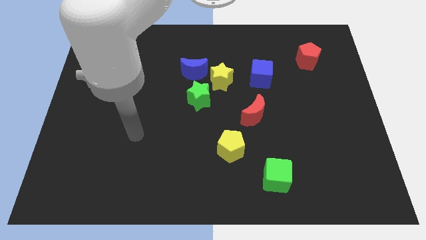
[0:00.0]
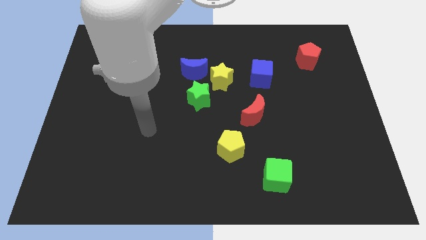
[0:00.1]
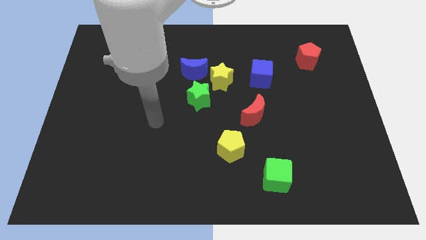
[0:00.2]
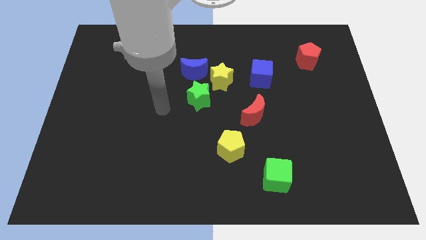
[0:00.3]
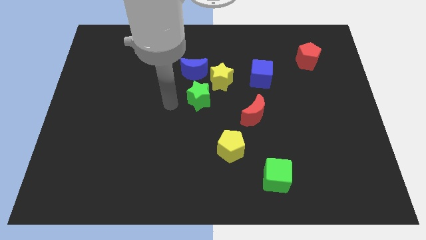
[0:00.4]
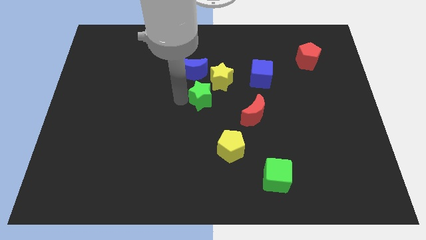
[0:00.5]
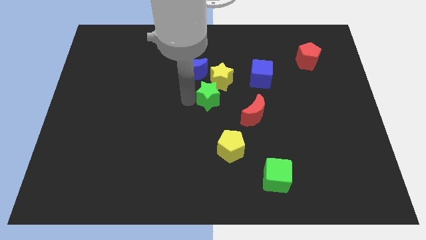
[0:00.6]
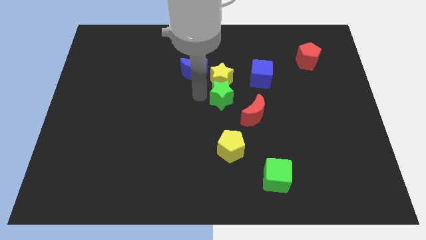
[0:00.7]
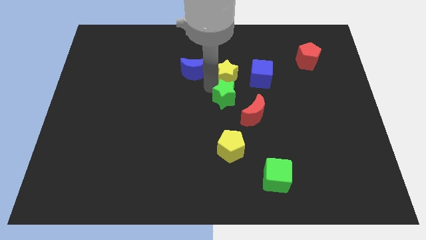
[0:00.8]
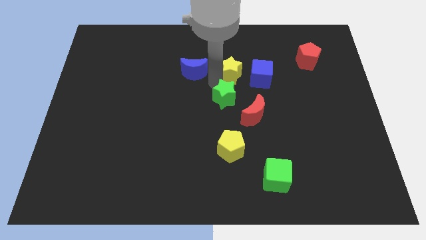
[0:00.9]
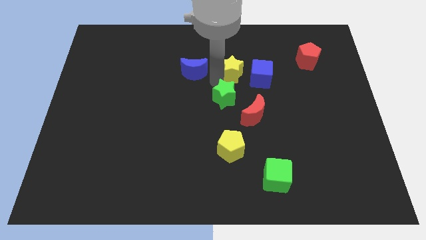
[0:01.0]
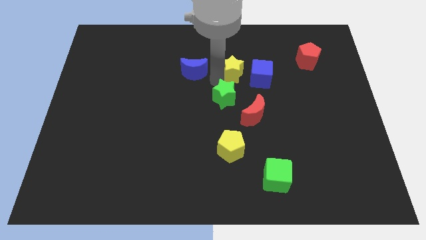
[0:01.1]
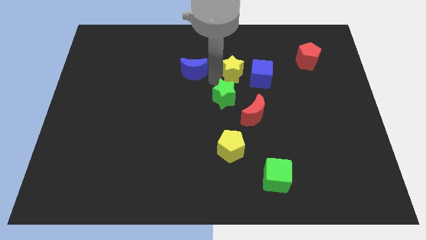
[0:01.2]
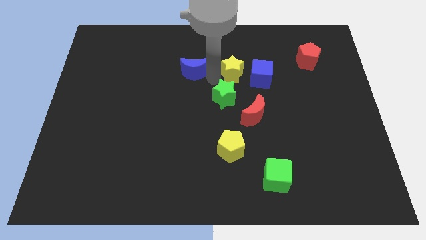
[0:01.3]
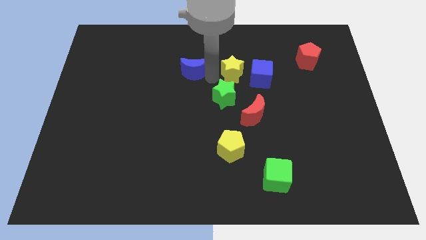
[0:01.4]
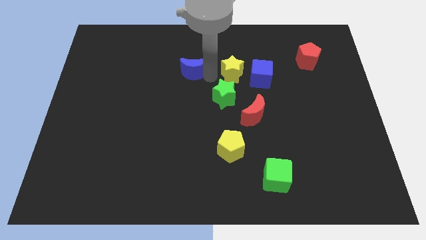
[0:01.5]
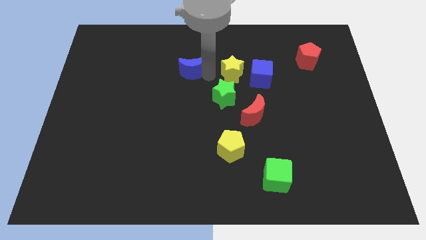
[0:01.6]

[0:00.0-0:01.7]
separate the blue moon from the yellow star and green star

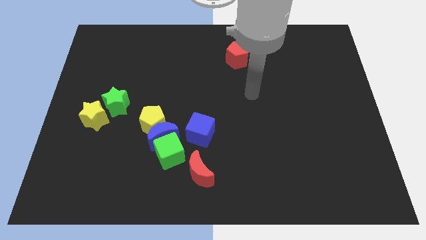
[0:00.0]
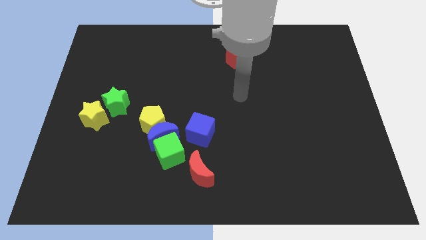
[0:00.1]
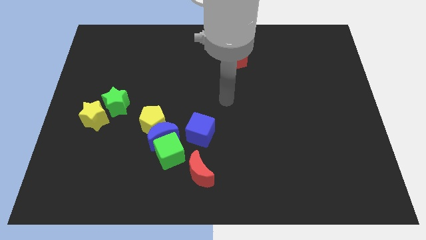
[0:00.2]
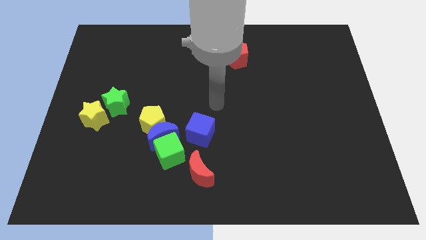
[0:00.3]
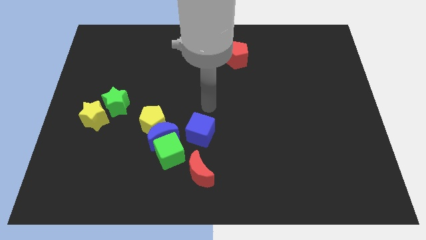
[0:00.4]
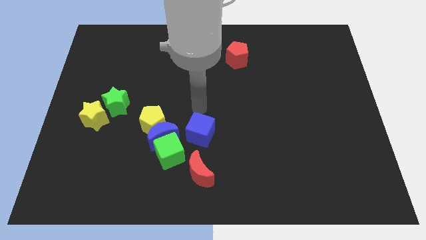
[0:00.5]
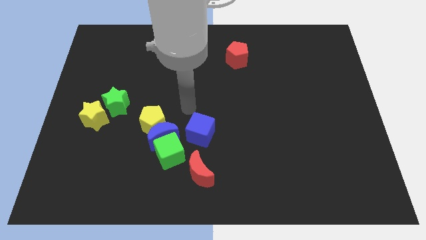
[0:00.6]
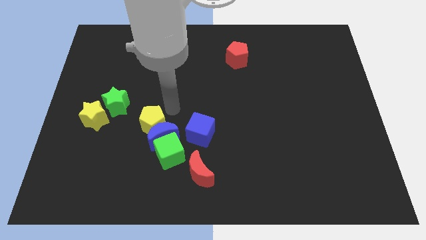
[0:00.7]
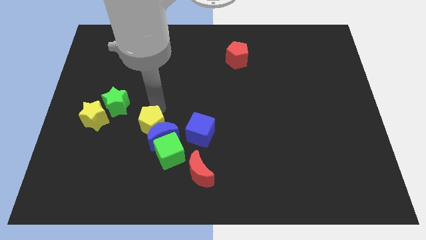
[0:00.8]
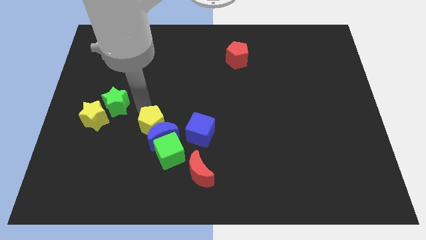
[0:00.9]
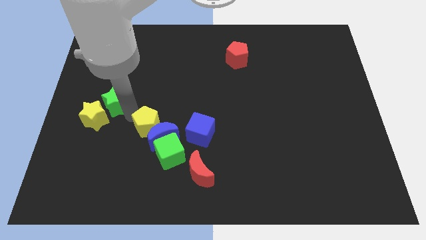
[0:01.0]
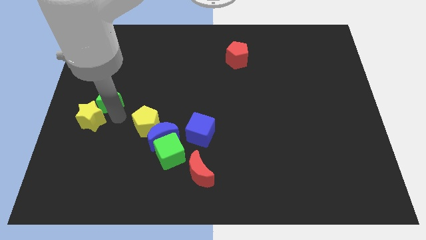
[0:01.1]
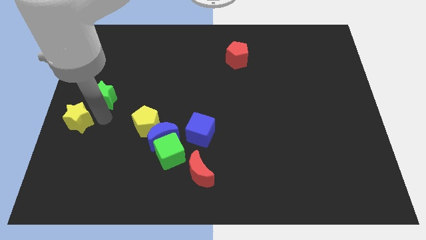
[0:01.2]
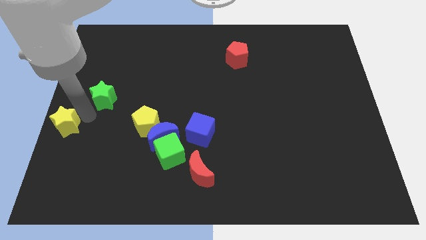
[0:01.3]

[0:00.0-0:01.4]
move the green star away from the yellow star

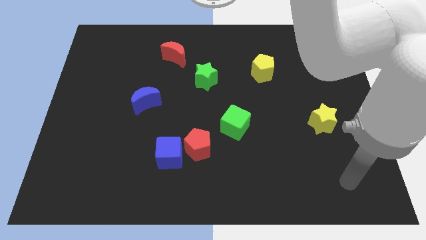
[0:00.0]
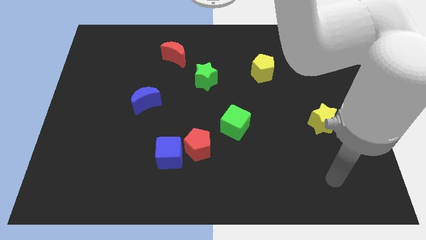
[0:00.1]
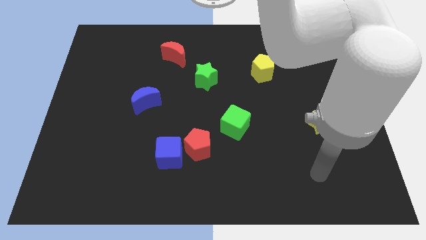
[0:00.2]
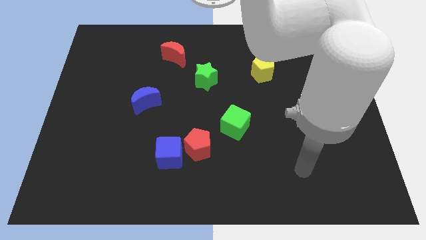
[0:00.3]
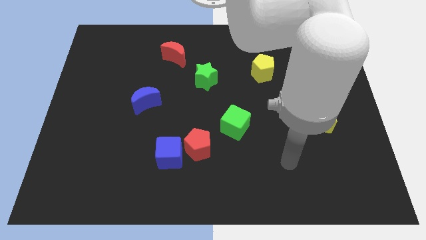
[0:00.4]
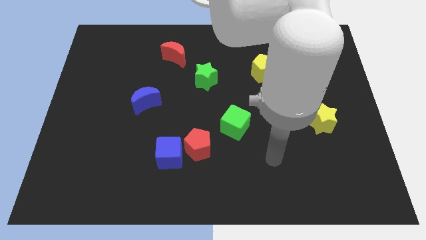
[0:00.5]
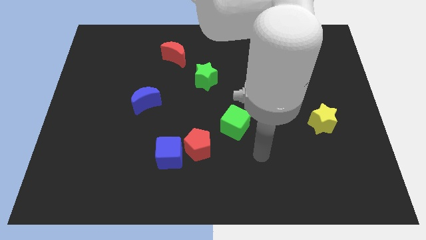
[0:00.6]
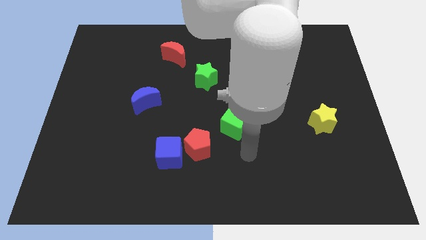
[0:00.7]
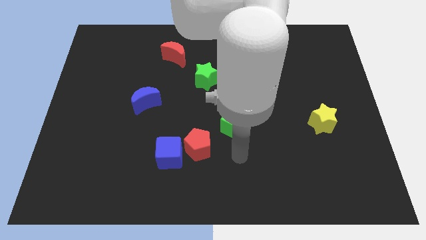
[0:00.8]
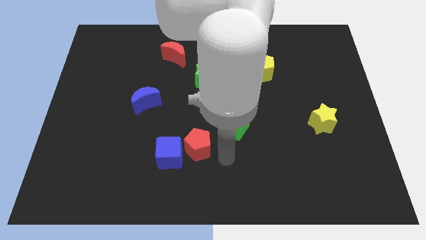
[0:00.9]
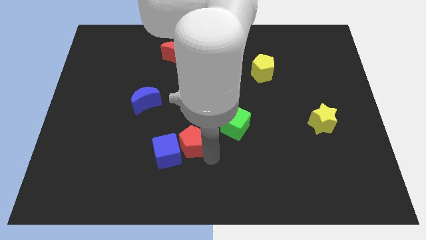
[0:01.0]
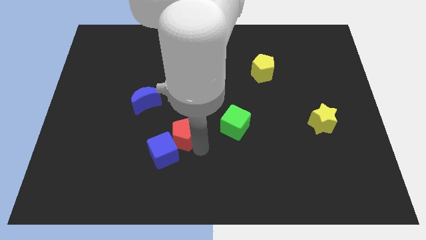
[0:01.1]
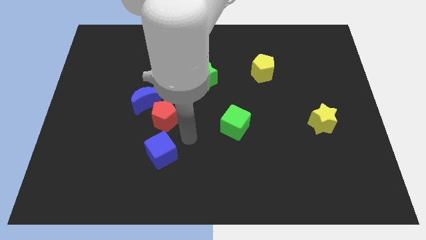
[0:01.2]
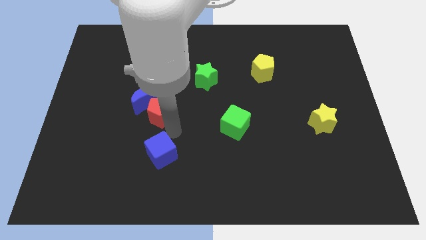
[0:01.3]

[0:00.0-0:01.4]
separate the blue cube from the red pentagon

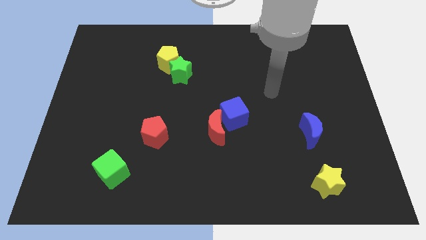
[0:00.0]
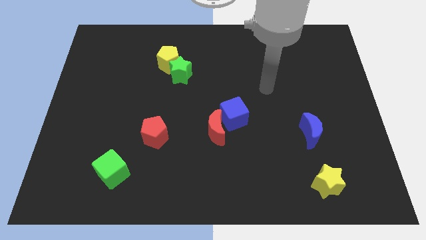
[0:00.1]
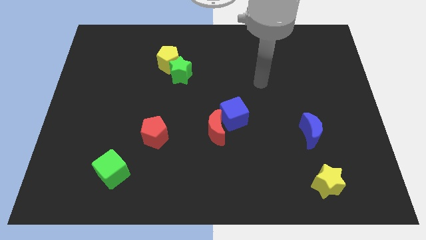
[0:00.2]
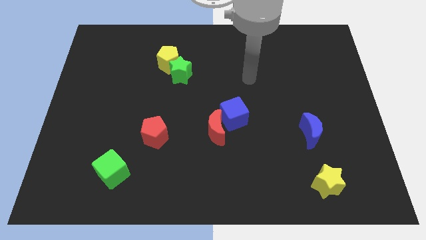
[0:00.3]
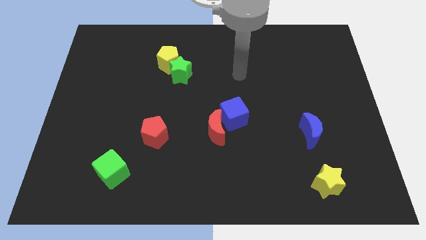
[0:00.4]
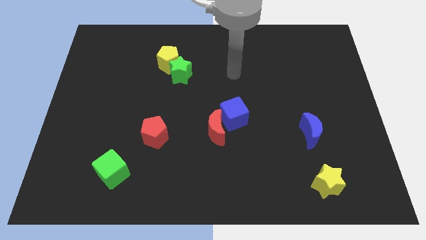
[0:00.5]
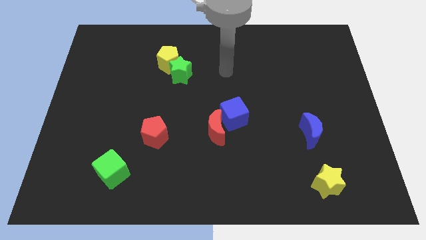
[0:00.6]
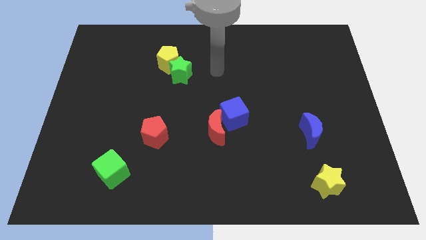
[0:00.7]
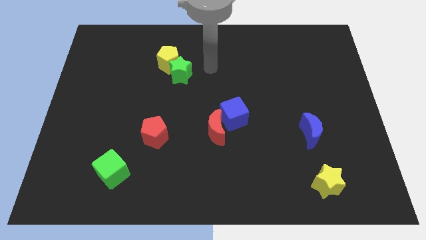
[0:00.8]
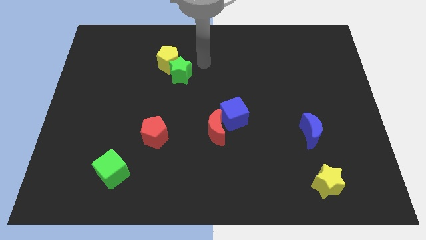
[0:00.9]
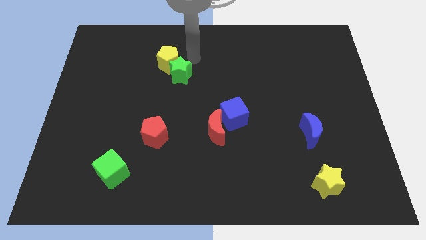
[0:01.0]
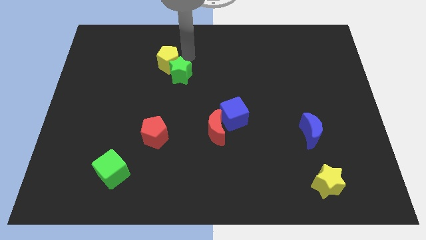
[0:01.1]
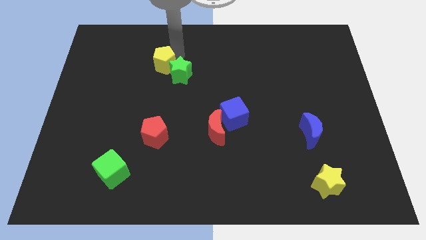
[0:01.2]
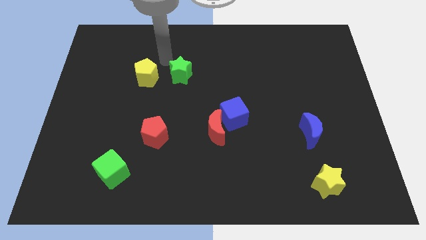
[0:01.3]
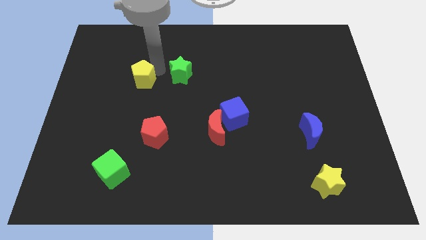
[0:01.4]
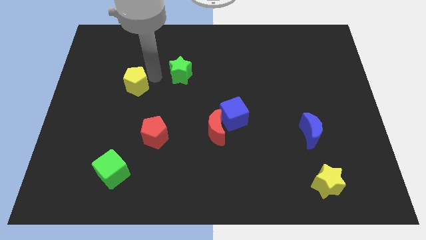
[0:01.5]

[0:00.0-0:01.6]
separate the green star from the yellow pentagon

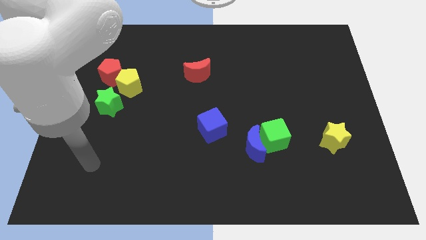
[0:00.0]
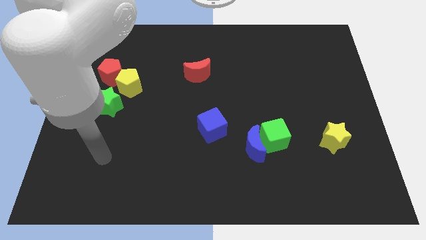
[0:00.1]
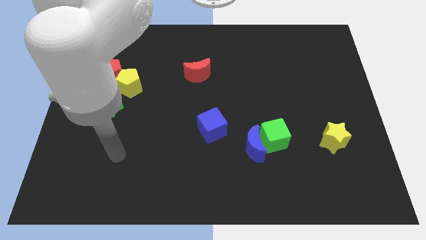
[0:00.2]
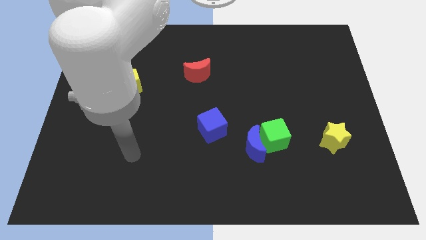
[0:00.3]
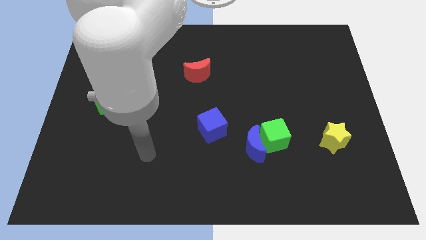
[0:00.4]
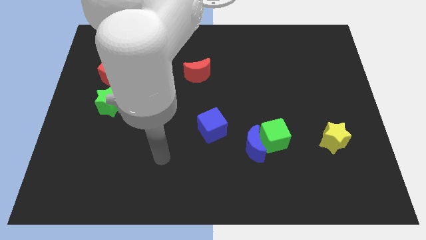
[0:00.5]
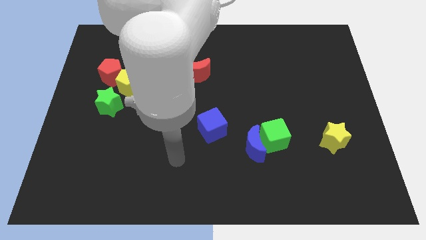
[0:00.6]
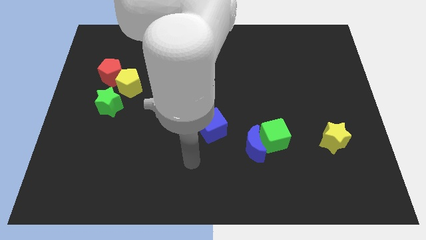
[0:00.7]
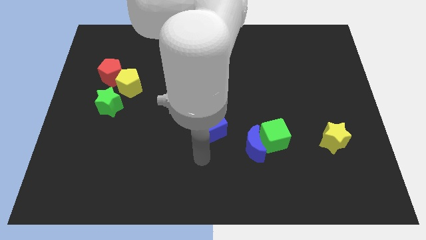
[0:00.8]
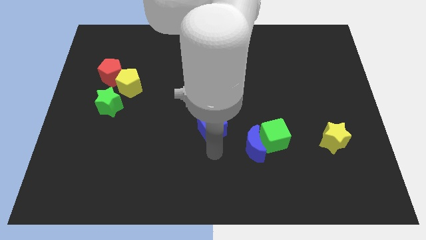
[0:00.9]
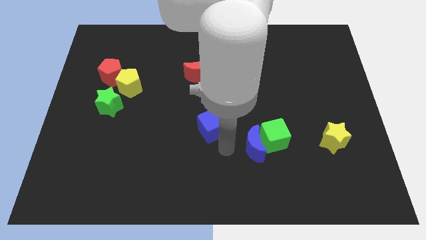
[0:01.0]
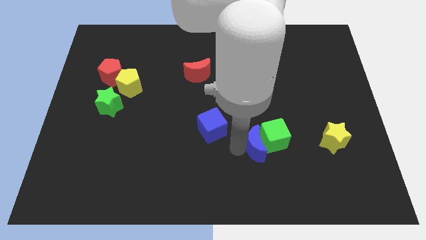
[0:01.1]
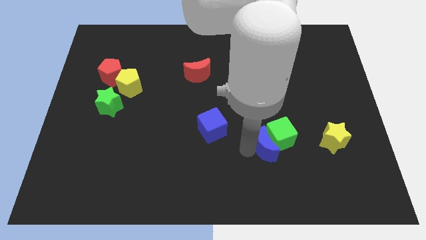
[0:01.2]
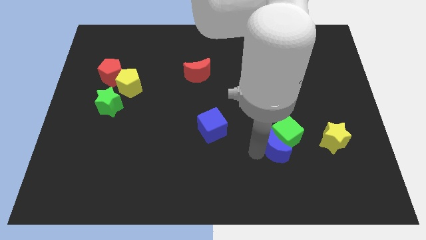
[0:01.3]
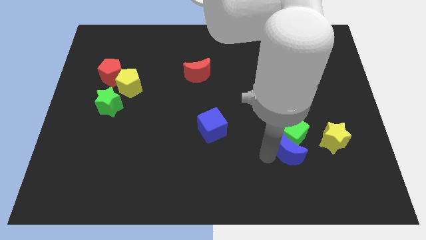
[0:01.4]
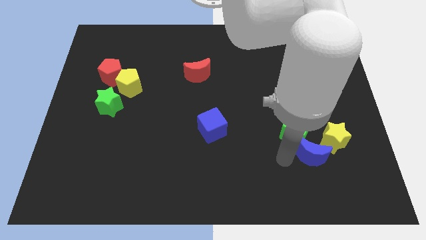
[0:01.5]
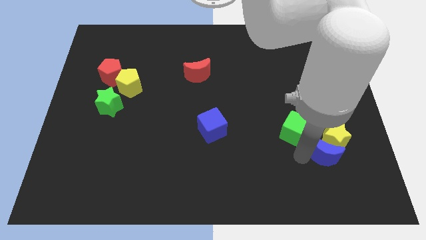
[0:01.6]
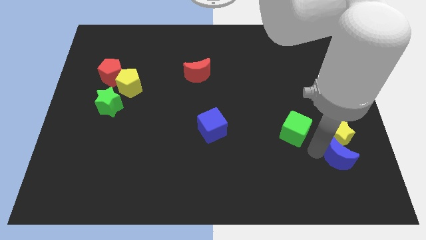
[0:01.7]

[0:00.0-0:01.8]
pull the green cube apart from the blue moon

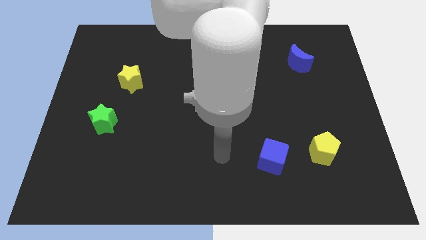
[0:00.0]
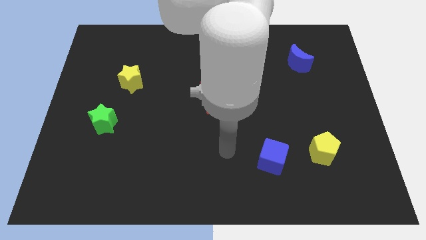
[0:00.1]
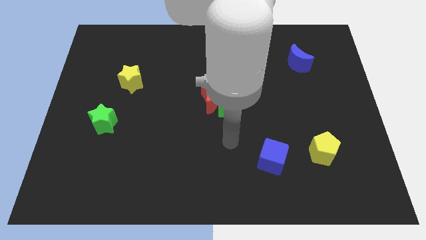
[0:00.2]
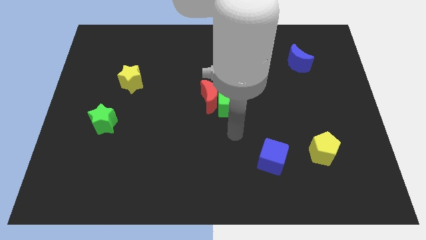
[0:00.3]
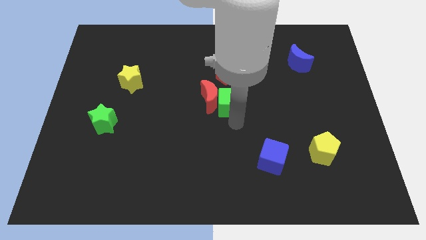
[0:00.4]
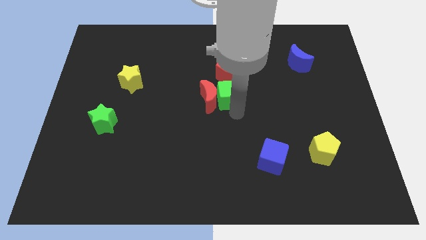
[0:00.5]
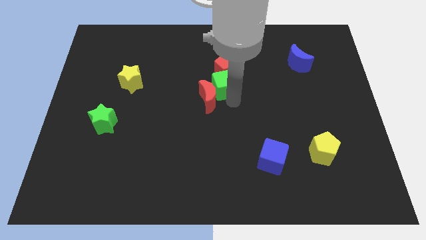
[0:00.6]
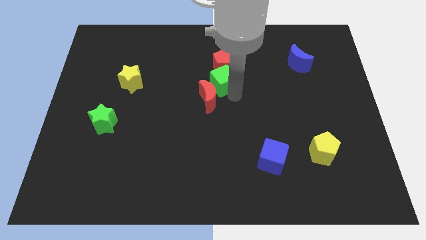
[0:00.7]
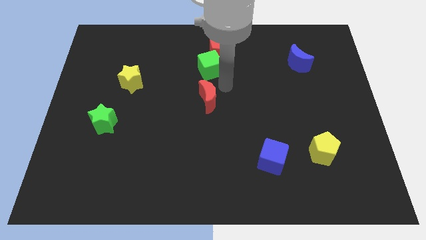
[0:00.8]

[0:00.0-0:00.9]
move the red moon away from the green cube and red pentagon

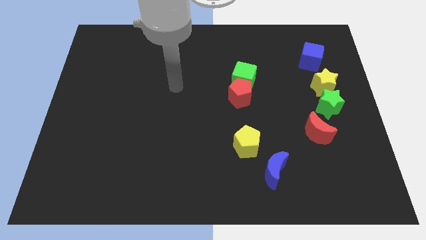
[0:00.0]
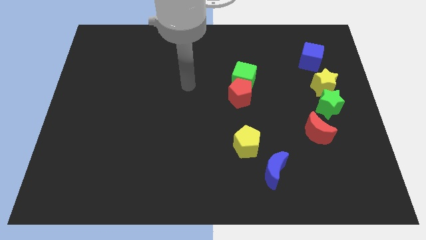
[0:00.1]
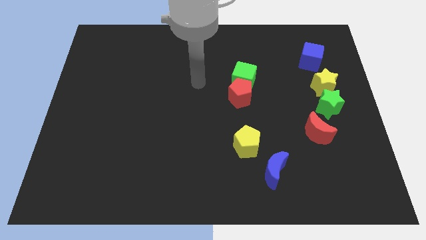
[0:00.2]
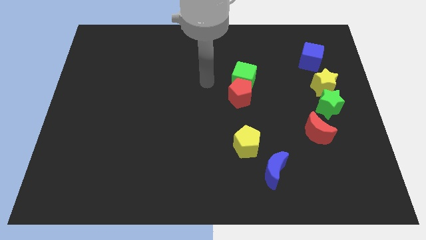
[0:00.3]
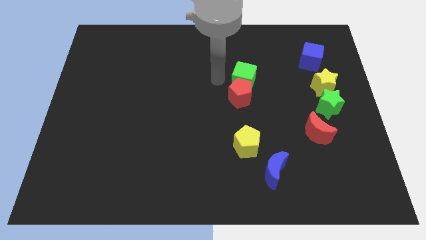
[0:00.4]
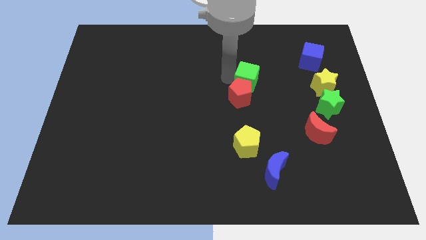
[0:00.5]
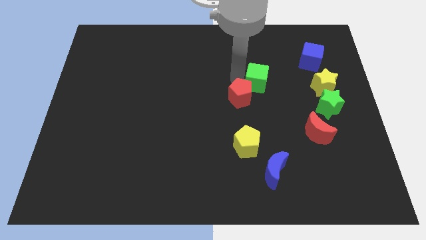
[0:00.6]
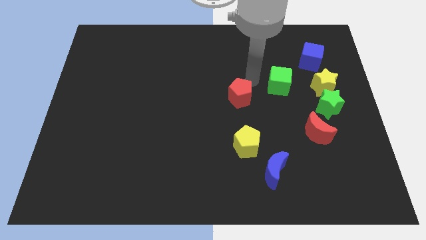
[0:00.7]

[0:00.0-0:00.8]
pull the red pentagon apart from the green cube
